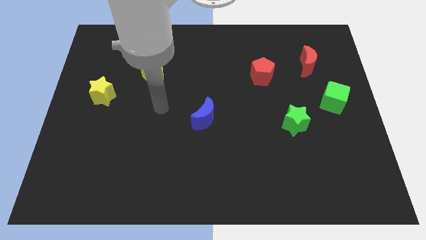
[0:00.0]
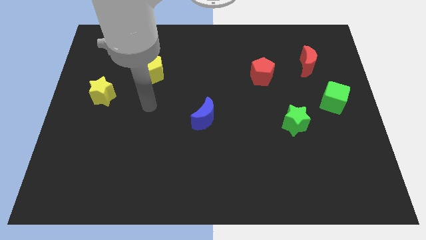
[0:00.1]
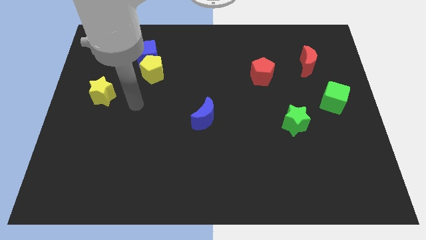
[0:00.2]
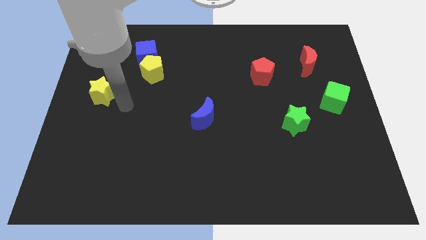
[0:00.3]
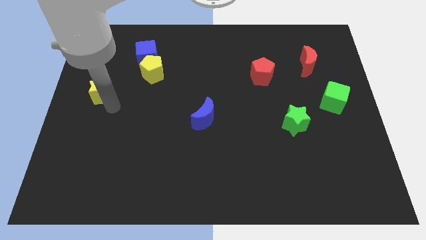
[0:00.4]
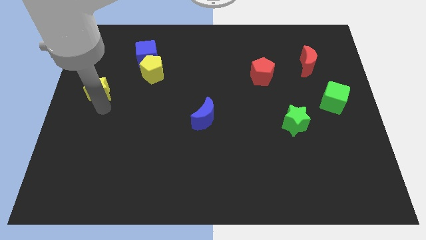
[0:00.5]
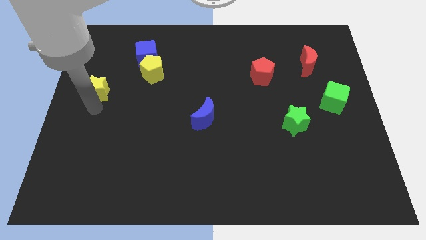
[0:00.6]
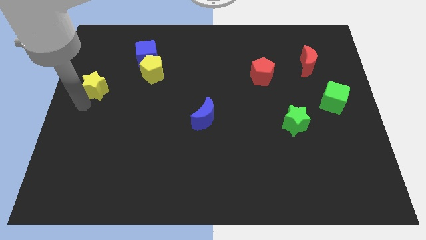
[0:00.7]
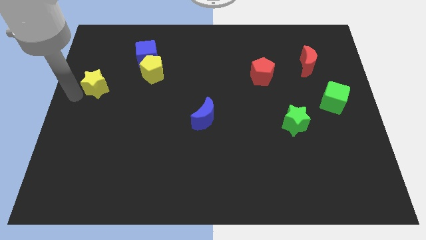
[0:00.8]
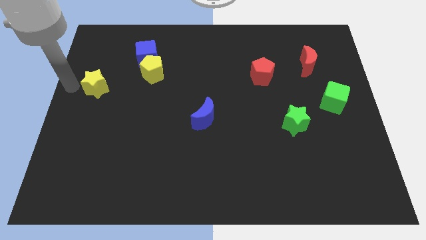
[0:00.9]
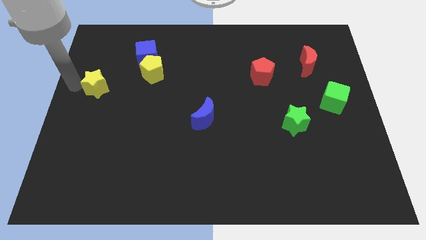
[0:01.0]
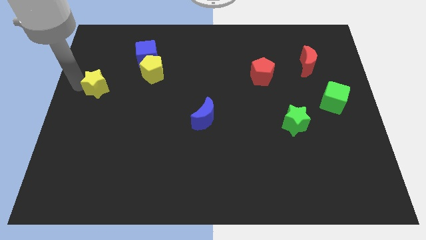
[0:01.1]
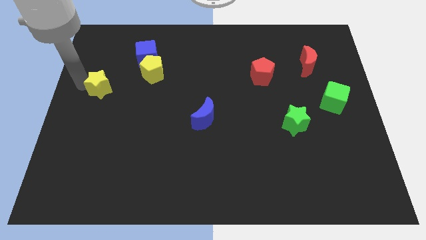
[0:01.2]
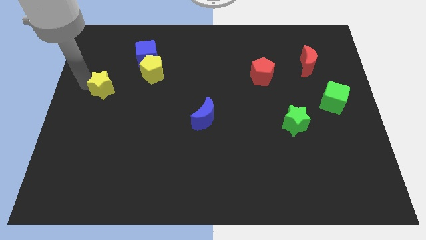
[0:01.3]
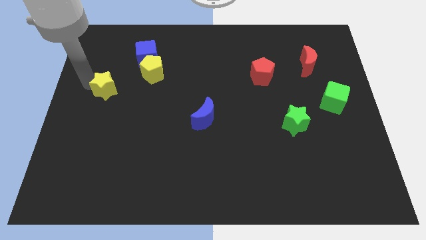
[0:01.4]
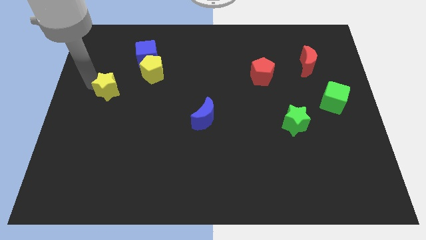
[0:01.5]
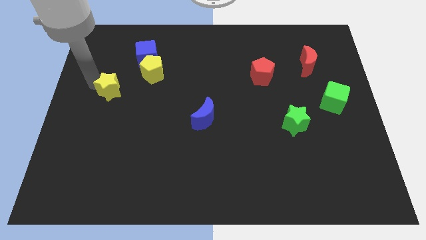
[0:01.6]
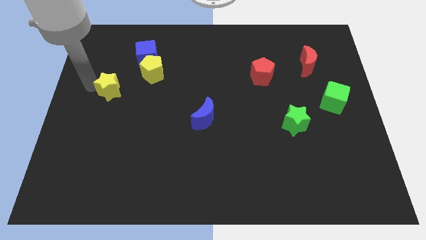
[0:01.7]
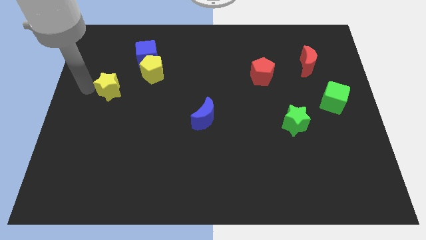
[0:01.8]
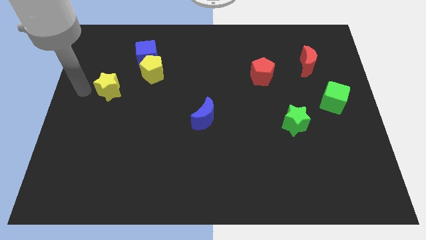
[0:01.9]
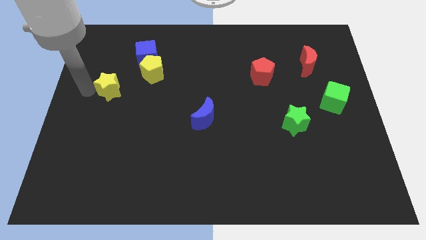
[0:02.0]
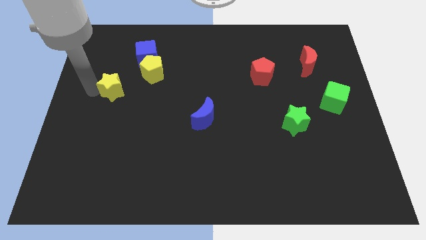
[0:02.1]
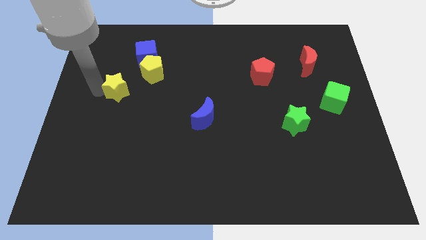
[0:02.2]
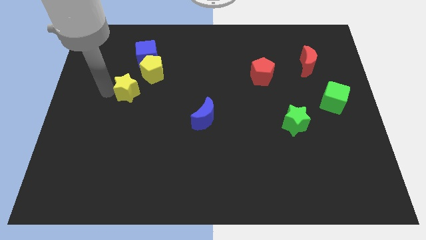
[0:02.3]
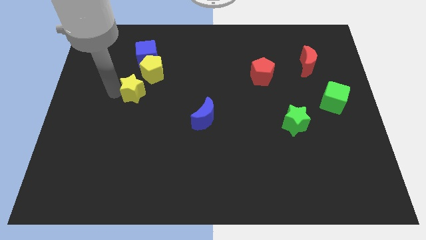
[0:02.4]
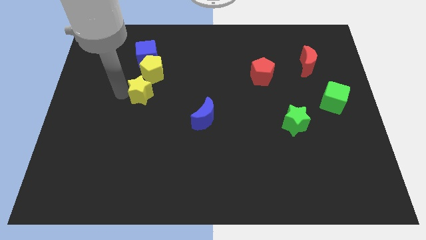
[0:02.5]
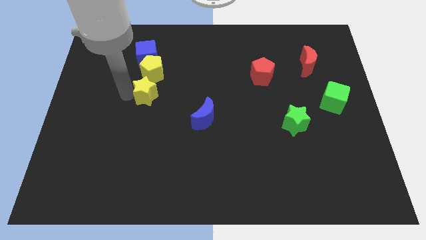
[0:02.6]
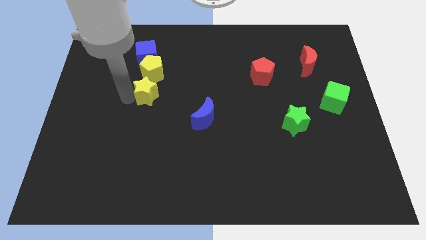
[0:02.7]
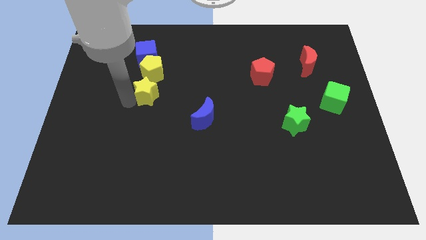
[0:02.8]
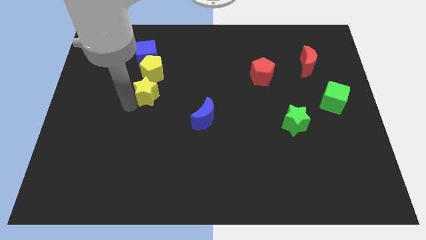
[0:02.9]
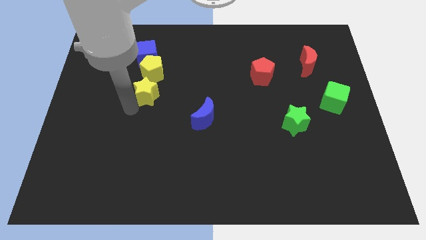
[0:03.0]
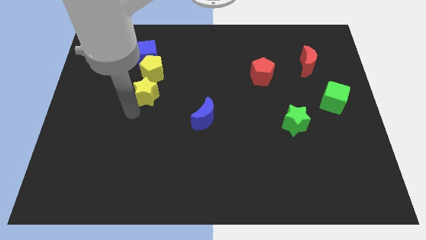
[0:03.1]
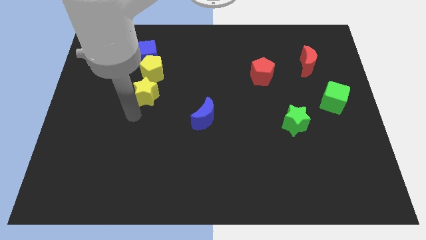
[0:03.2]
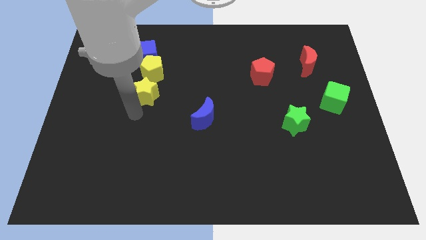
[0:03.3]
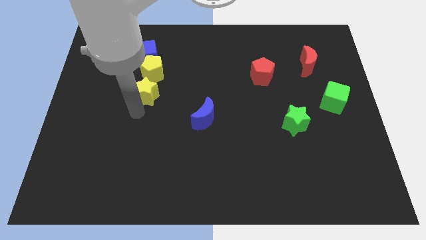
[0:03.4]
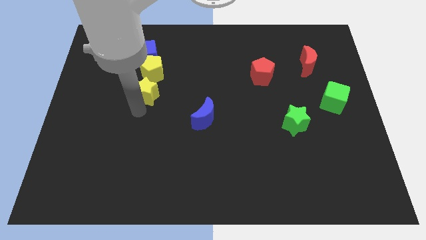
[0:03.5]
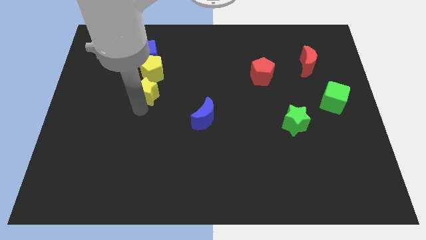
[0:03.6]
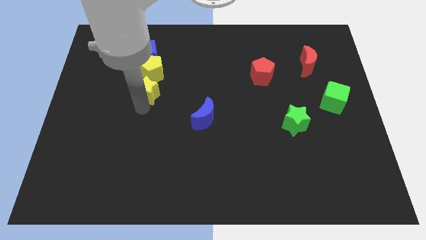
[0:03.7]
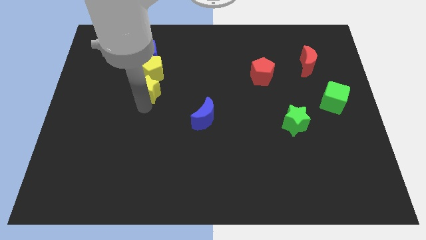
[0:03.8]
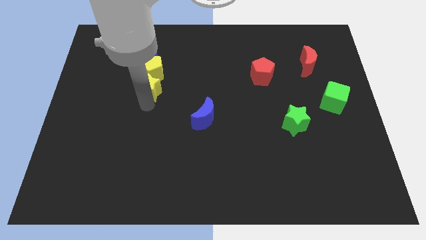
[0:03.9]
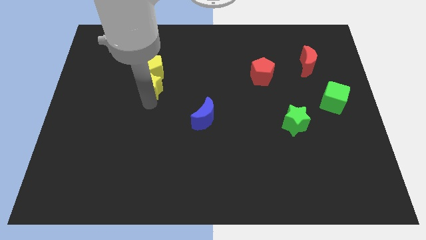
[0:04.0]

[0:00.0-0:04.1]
move the yellow star diagonally upwards and to the right slightly

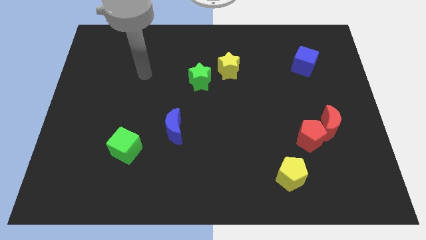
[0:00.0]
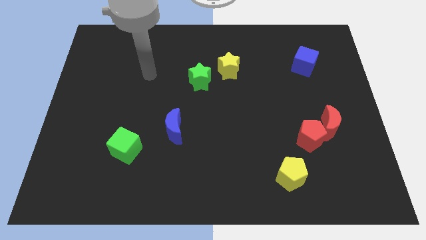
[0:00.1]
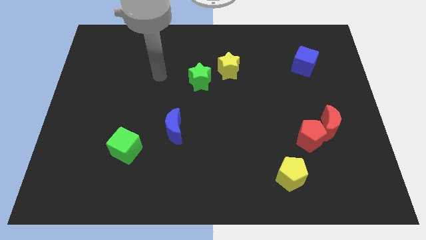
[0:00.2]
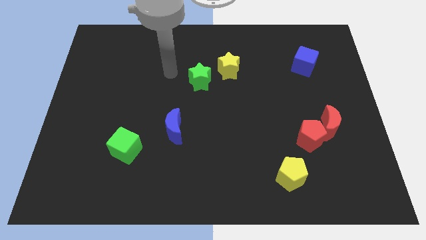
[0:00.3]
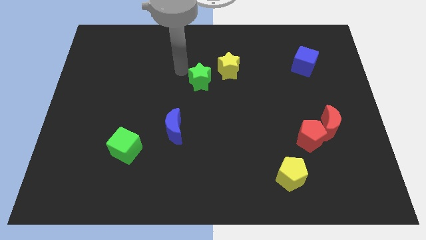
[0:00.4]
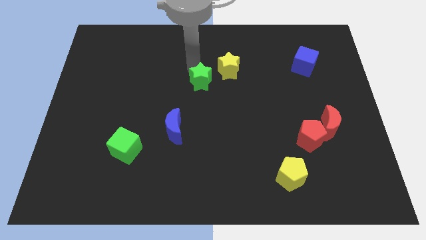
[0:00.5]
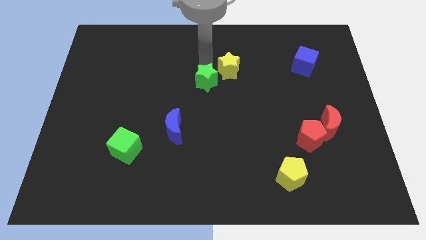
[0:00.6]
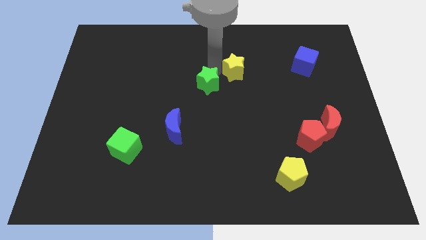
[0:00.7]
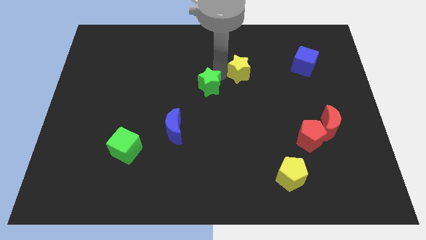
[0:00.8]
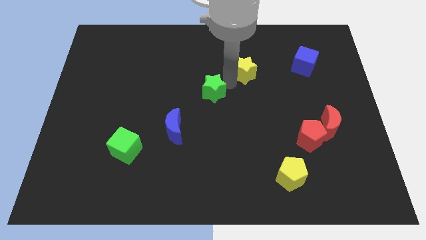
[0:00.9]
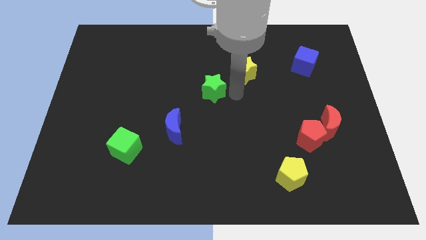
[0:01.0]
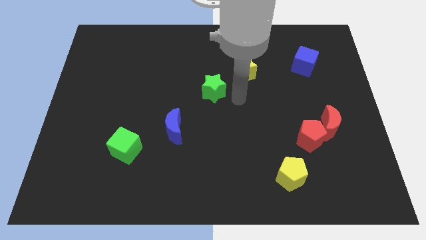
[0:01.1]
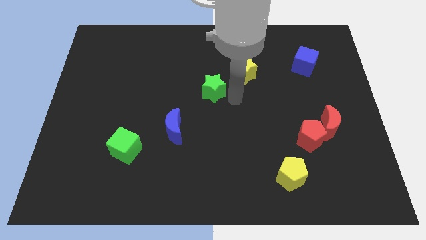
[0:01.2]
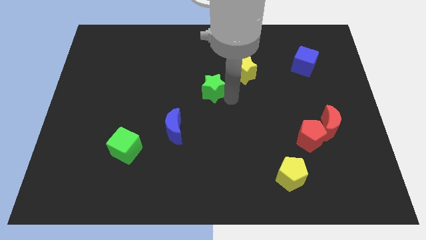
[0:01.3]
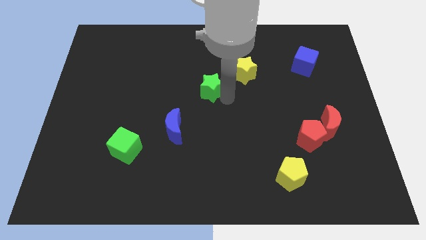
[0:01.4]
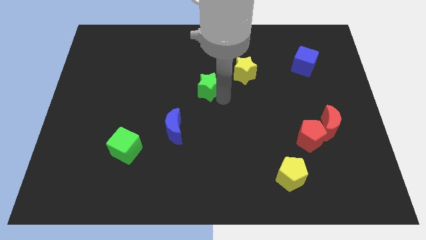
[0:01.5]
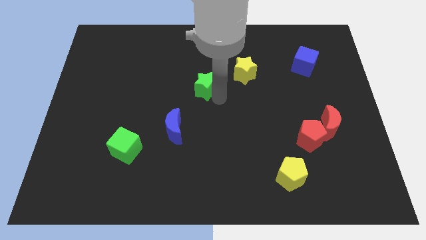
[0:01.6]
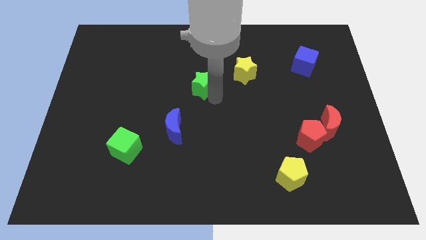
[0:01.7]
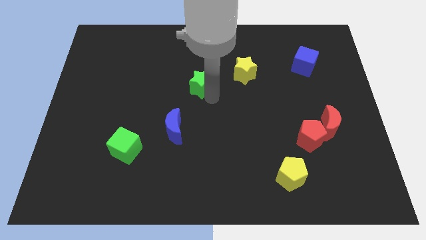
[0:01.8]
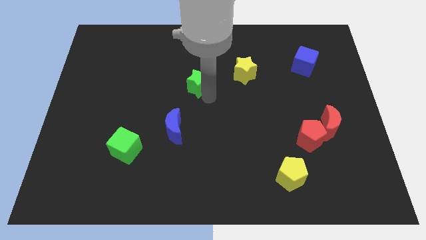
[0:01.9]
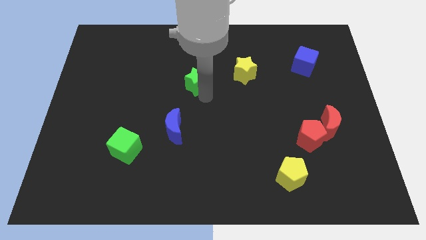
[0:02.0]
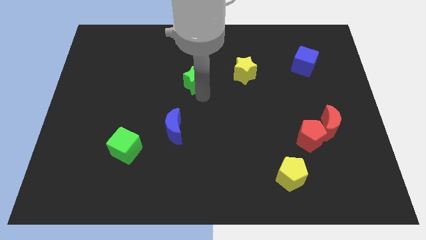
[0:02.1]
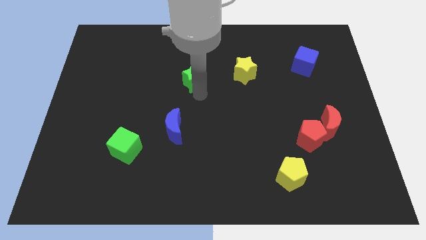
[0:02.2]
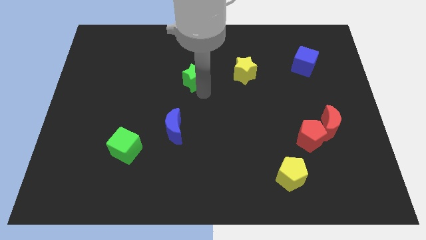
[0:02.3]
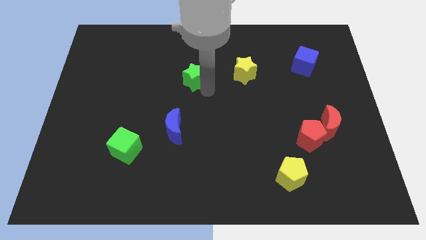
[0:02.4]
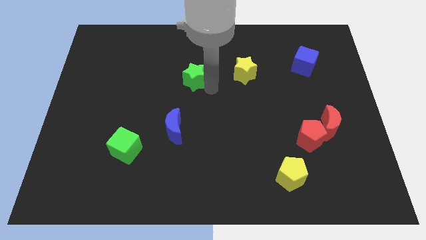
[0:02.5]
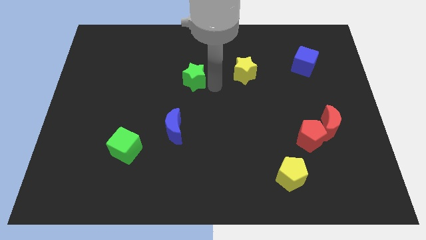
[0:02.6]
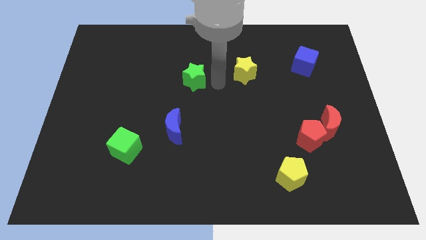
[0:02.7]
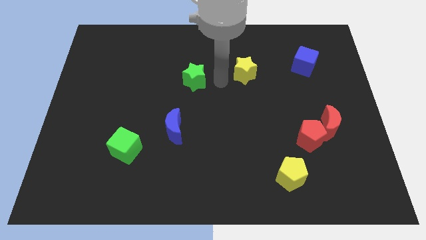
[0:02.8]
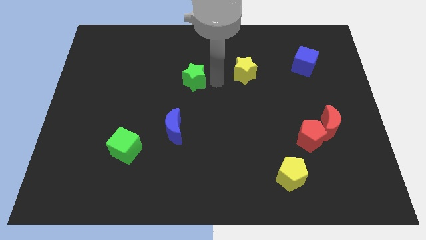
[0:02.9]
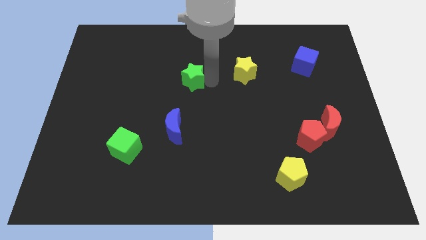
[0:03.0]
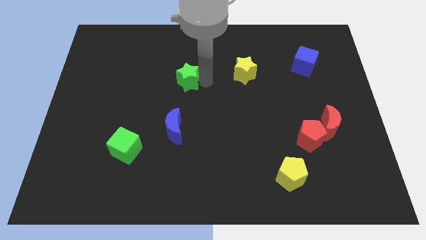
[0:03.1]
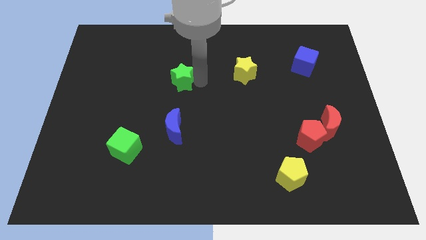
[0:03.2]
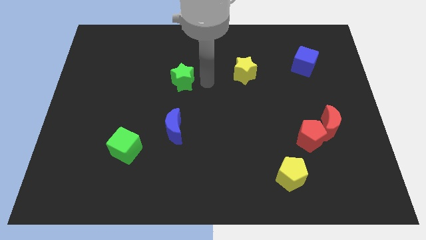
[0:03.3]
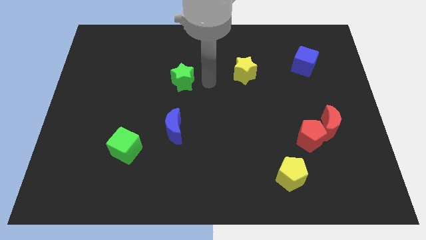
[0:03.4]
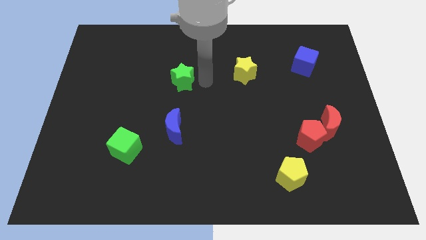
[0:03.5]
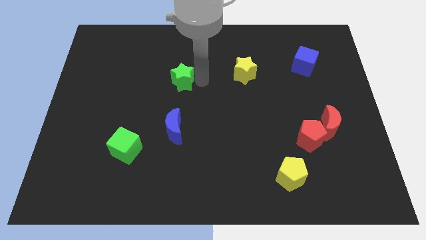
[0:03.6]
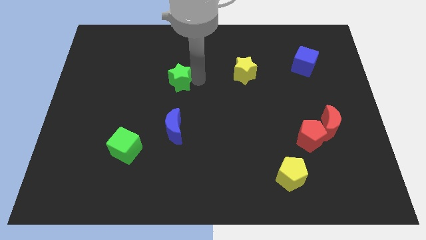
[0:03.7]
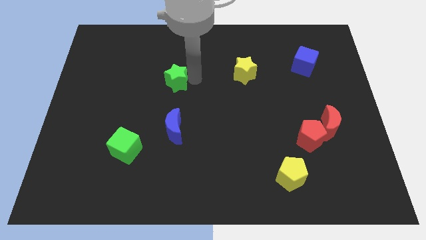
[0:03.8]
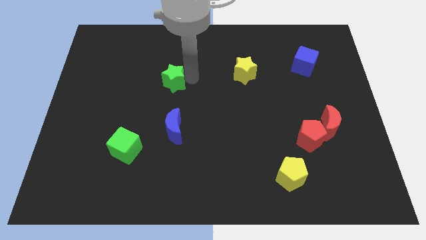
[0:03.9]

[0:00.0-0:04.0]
push the green star slightly to the left
